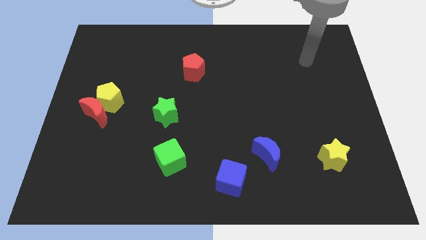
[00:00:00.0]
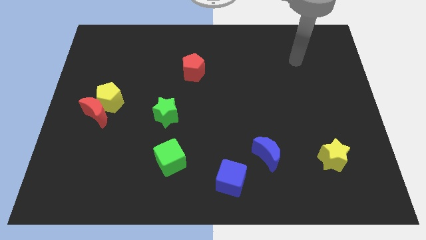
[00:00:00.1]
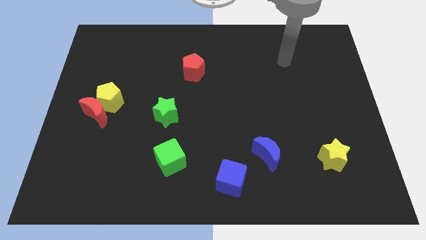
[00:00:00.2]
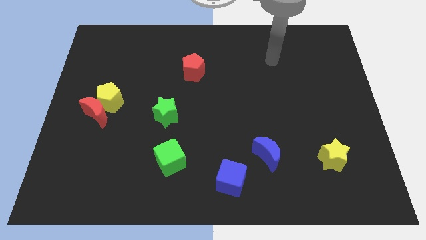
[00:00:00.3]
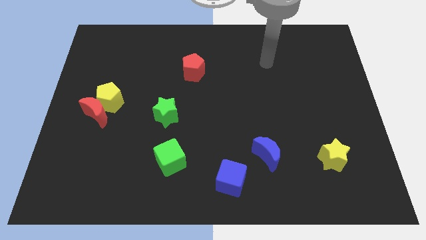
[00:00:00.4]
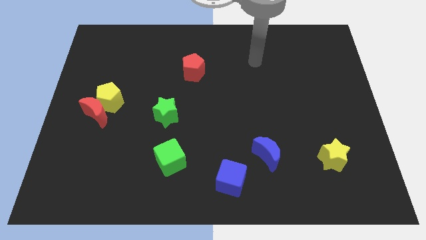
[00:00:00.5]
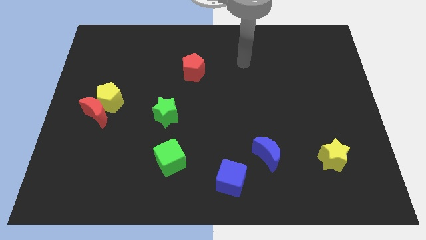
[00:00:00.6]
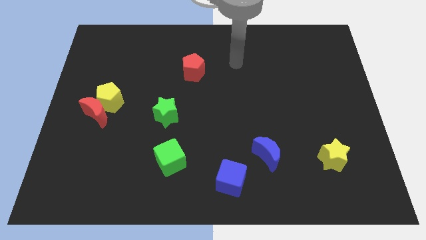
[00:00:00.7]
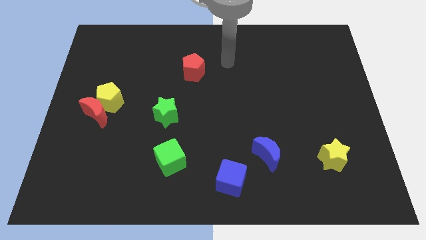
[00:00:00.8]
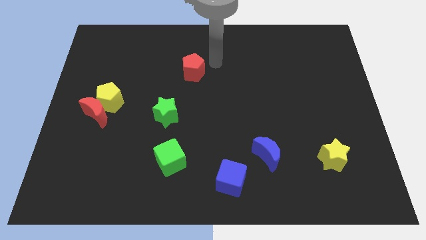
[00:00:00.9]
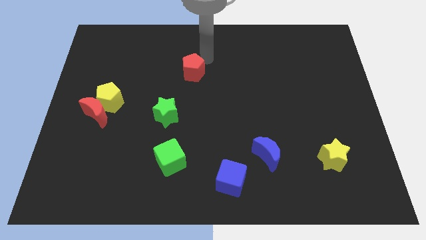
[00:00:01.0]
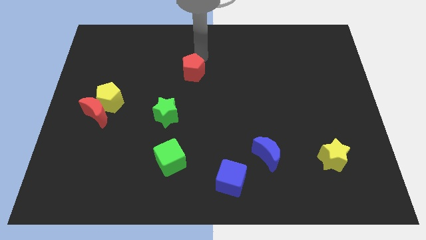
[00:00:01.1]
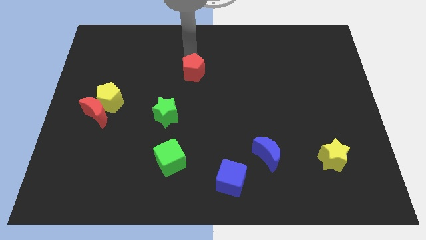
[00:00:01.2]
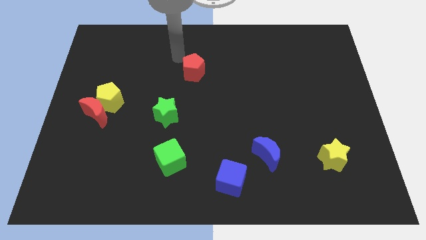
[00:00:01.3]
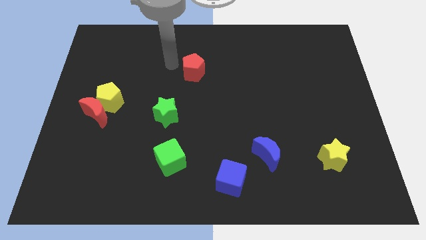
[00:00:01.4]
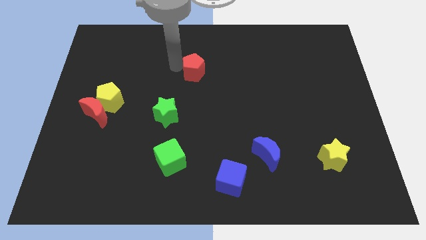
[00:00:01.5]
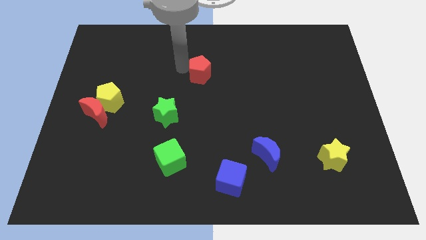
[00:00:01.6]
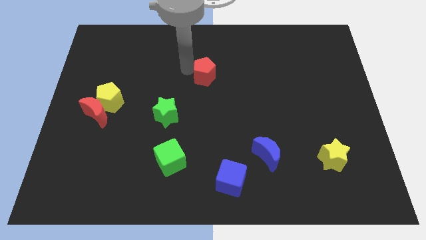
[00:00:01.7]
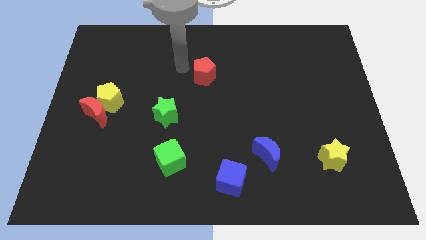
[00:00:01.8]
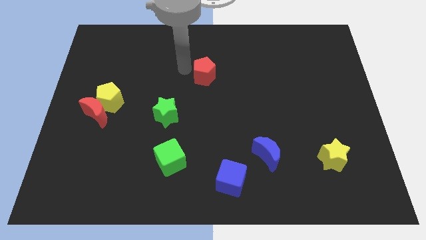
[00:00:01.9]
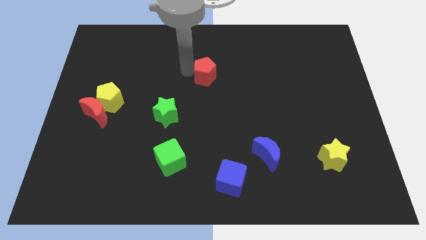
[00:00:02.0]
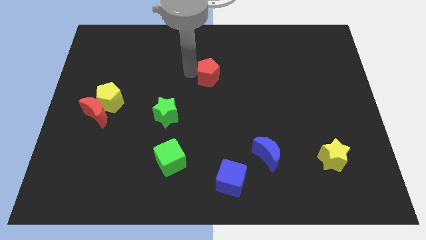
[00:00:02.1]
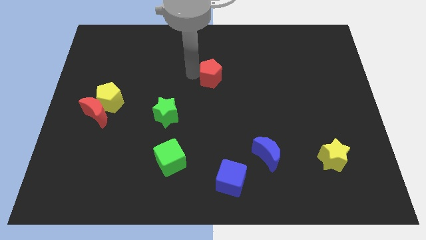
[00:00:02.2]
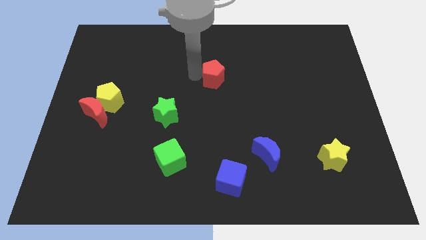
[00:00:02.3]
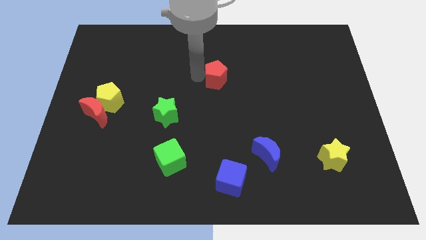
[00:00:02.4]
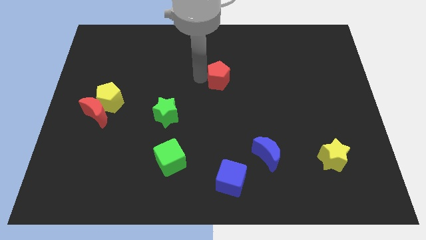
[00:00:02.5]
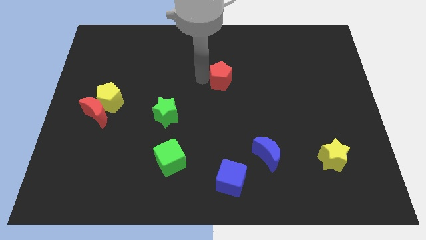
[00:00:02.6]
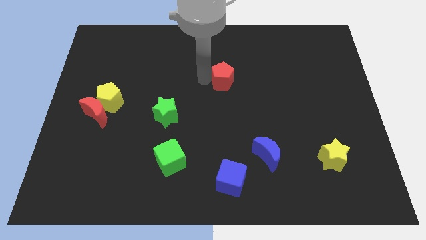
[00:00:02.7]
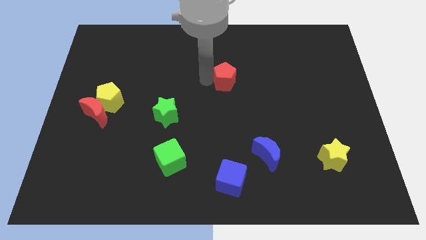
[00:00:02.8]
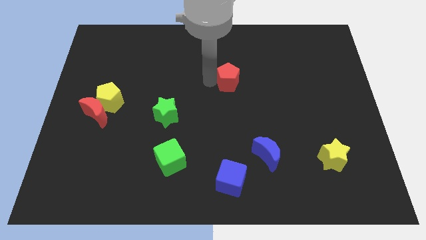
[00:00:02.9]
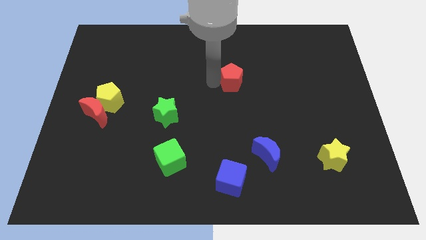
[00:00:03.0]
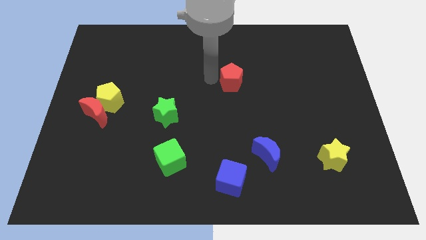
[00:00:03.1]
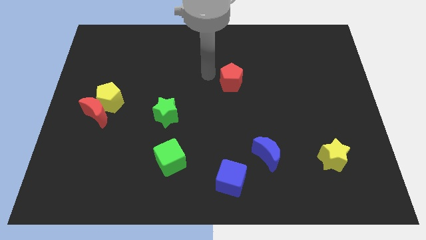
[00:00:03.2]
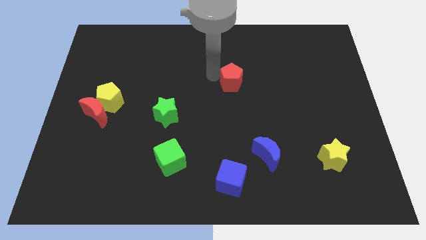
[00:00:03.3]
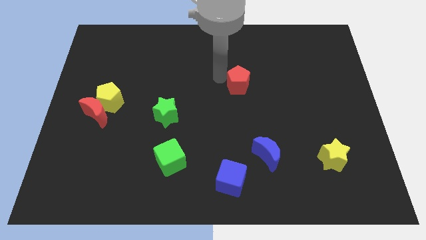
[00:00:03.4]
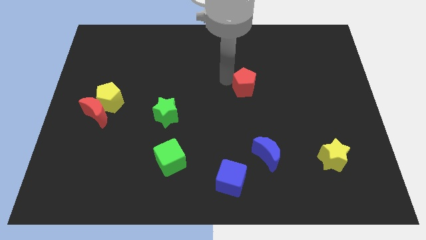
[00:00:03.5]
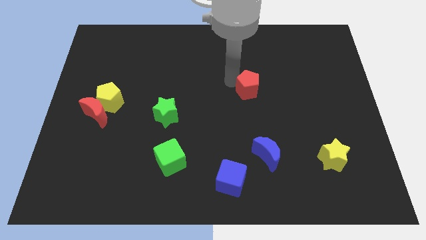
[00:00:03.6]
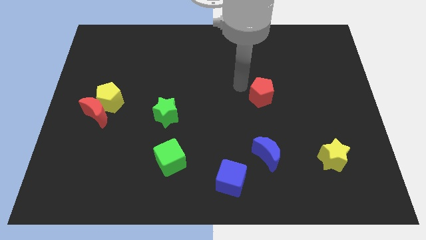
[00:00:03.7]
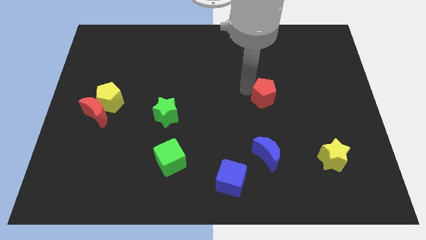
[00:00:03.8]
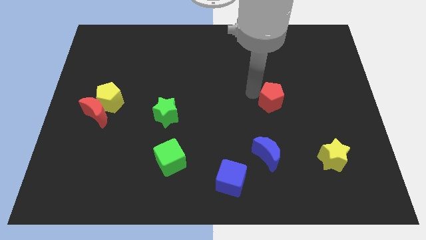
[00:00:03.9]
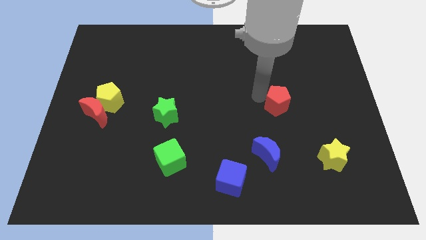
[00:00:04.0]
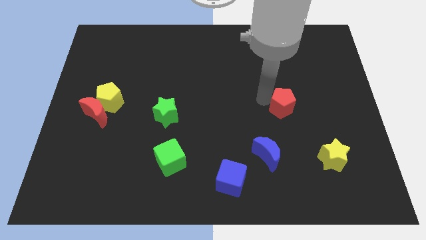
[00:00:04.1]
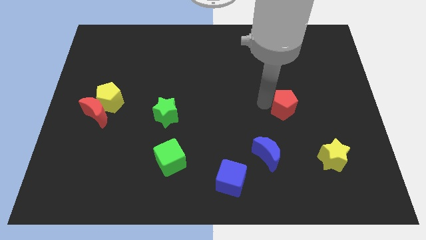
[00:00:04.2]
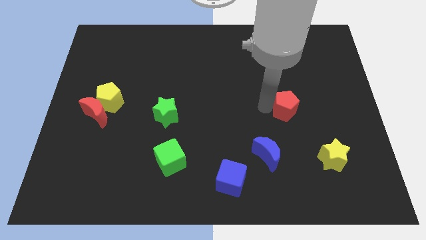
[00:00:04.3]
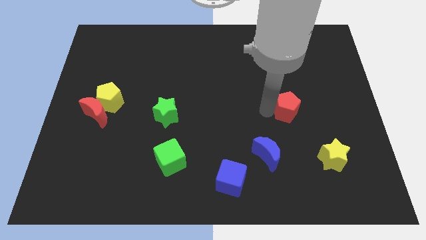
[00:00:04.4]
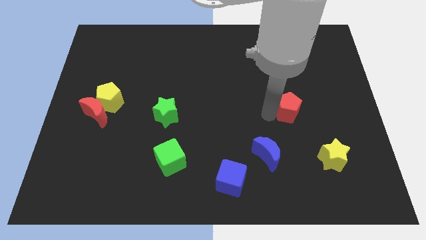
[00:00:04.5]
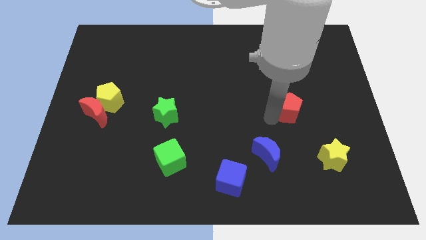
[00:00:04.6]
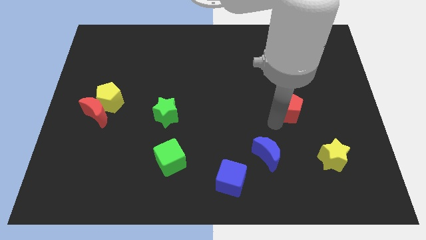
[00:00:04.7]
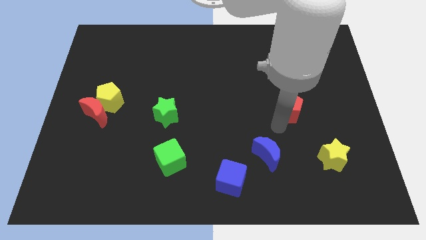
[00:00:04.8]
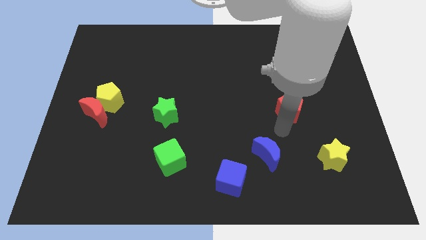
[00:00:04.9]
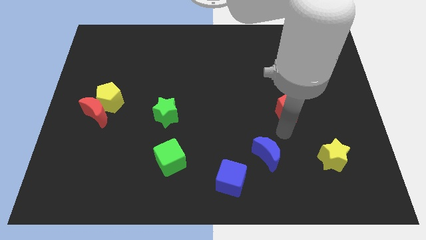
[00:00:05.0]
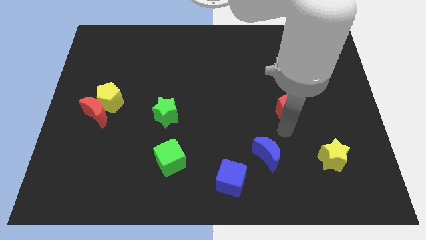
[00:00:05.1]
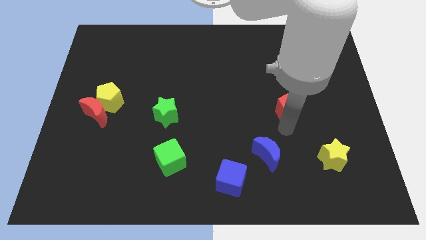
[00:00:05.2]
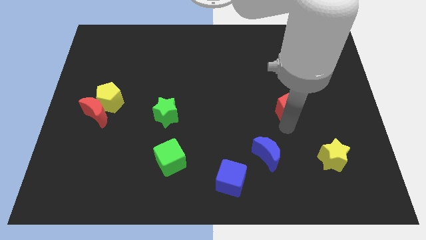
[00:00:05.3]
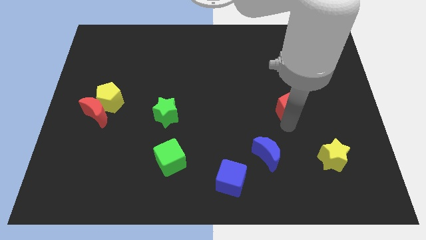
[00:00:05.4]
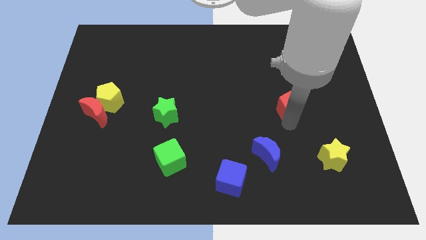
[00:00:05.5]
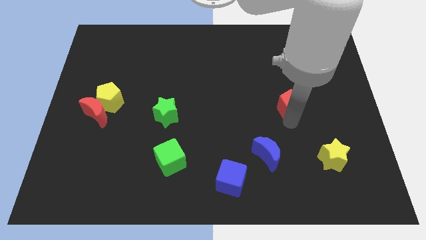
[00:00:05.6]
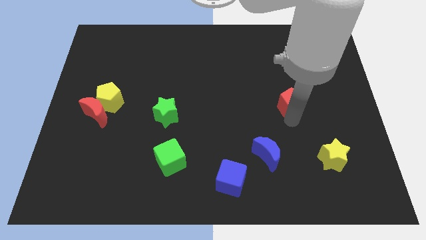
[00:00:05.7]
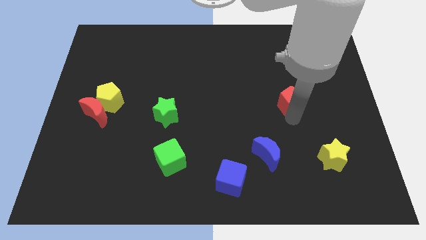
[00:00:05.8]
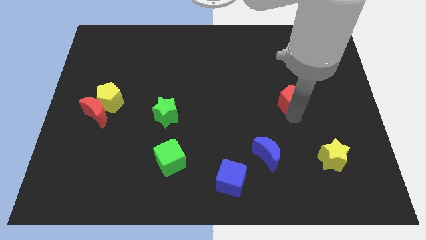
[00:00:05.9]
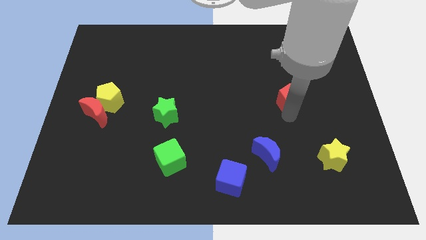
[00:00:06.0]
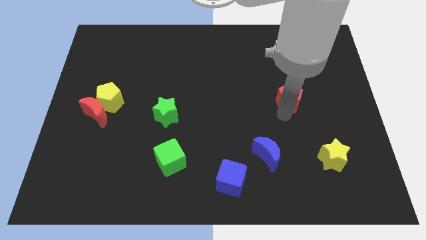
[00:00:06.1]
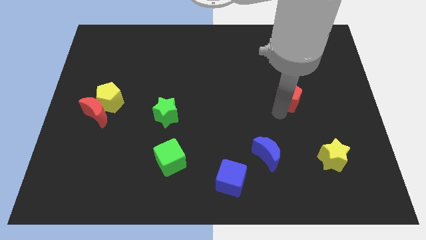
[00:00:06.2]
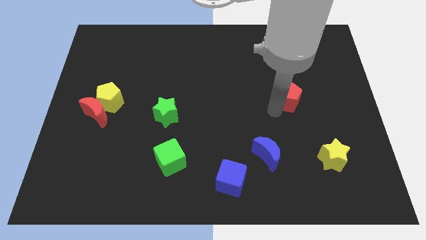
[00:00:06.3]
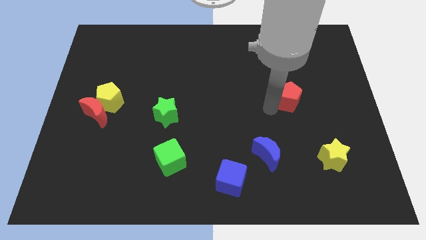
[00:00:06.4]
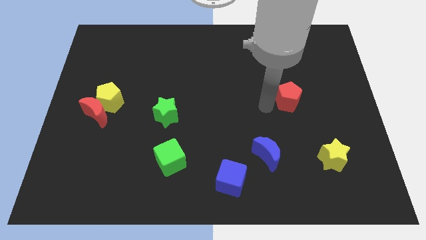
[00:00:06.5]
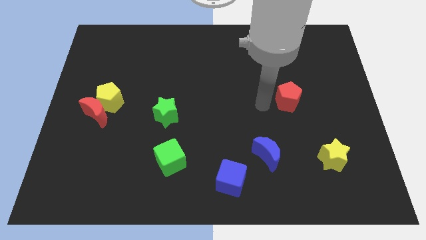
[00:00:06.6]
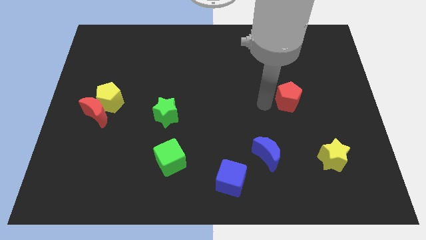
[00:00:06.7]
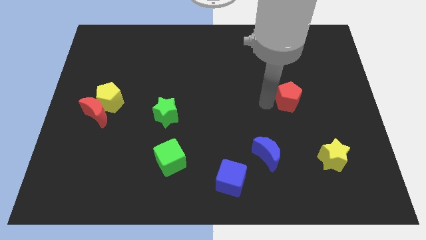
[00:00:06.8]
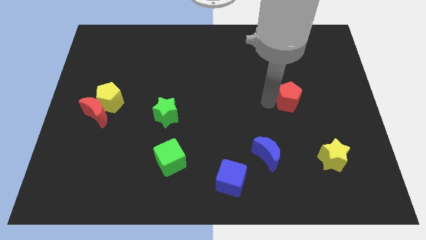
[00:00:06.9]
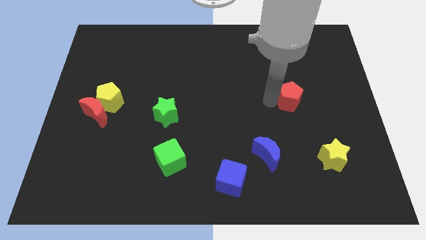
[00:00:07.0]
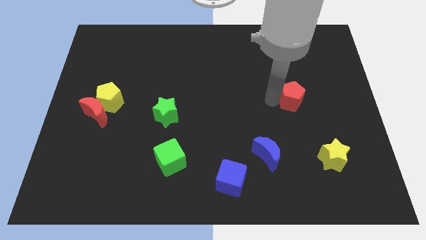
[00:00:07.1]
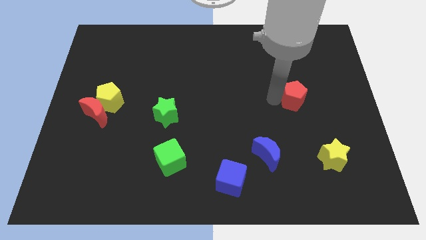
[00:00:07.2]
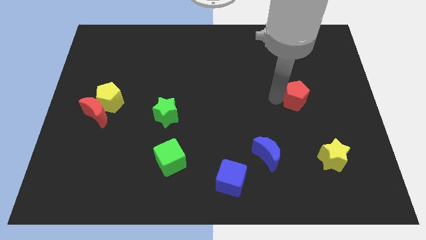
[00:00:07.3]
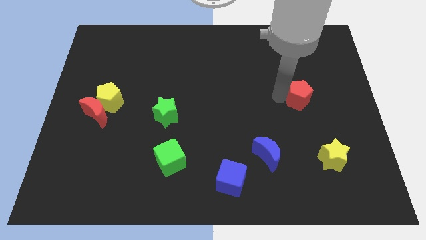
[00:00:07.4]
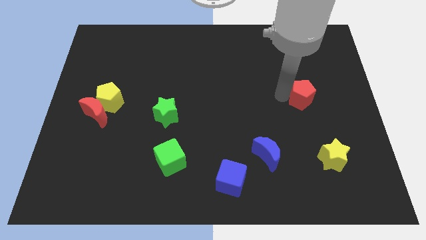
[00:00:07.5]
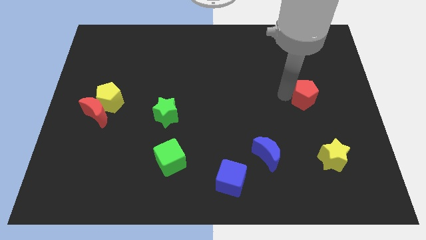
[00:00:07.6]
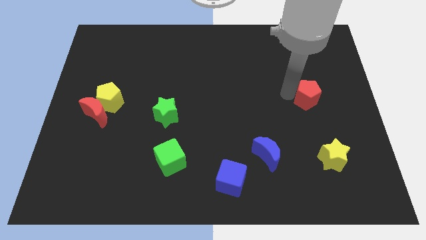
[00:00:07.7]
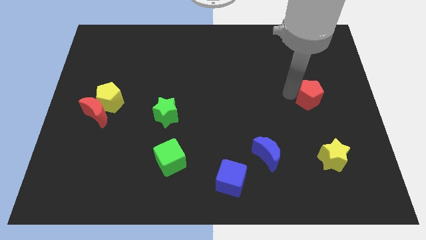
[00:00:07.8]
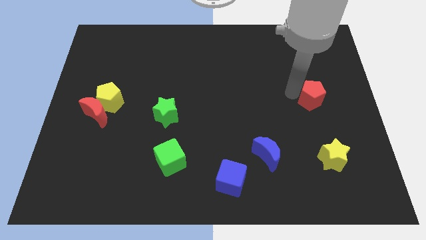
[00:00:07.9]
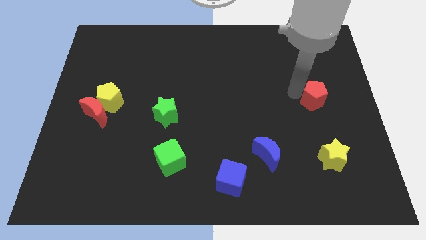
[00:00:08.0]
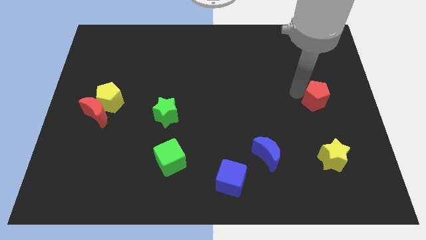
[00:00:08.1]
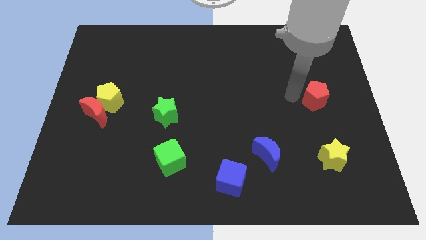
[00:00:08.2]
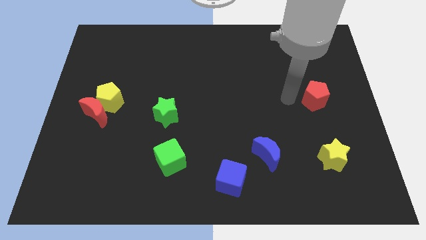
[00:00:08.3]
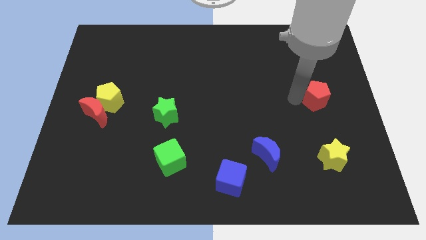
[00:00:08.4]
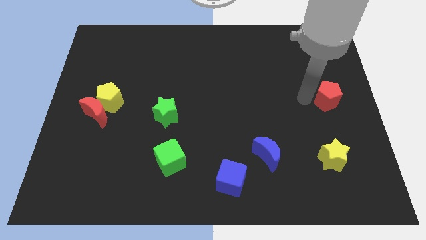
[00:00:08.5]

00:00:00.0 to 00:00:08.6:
move the red pentagon to the right side of the board
